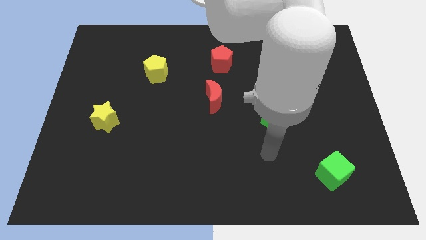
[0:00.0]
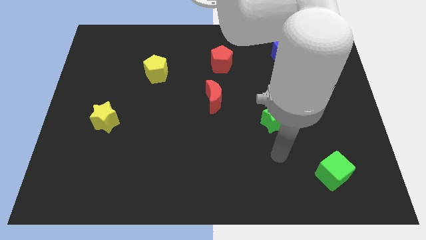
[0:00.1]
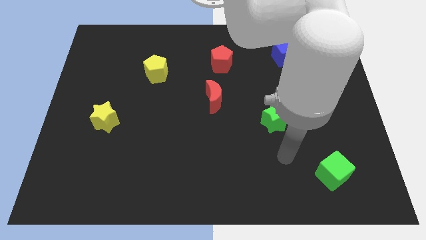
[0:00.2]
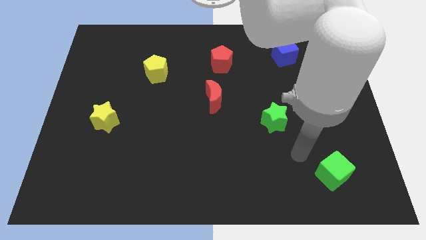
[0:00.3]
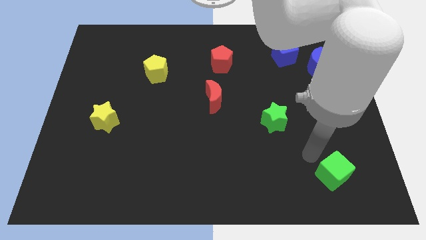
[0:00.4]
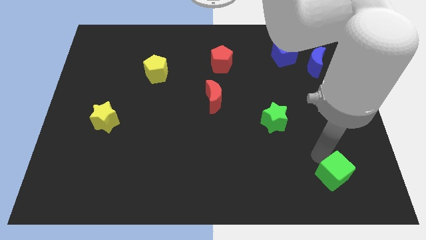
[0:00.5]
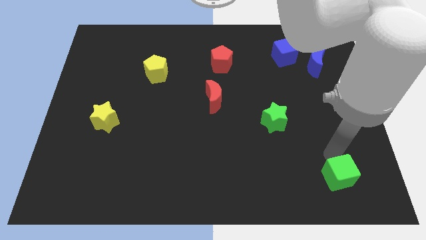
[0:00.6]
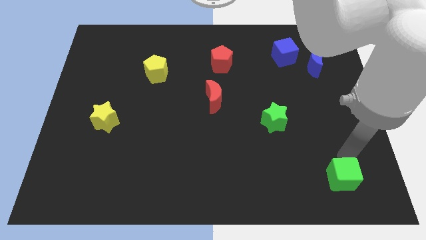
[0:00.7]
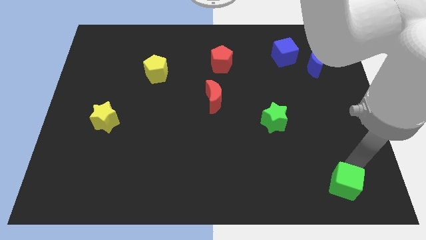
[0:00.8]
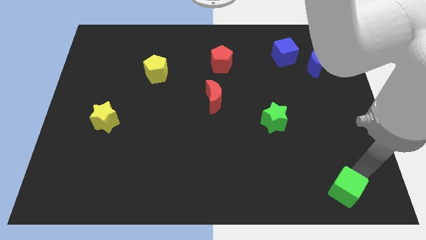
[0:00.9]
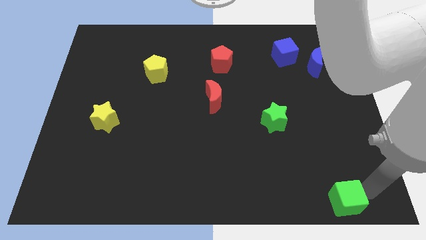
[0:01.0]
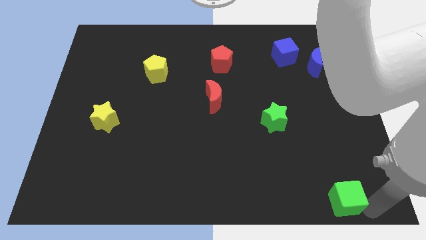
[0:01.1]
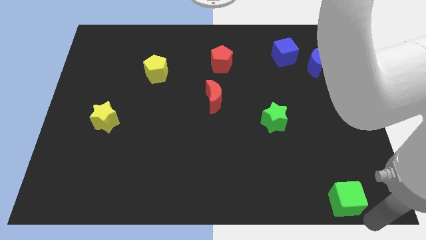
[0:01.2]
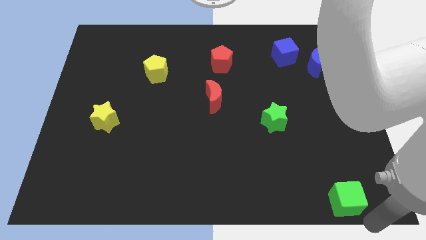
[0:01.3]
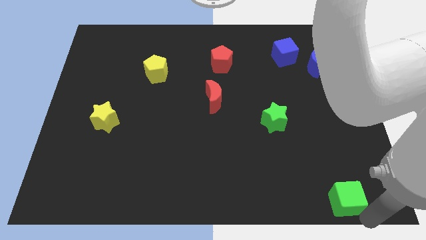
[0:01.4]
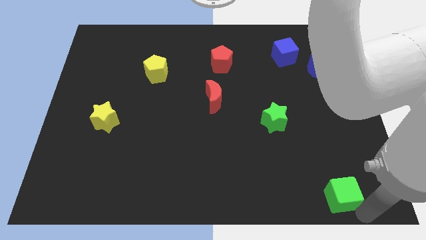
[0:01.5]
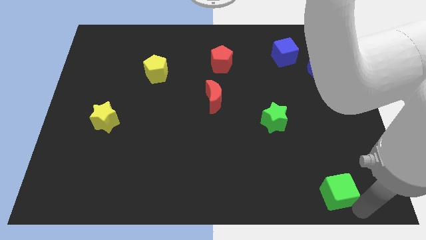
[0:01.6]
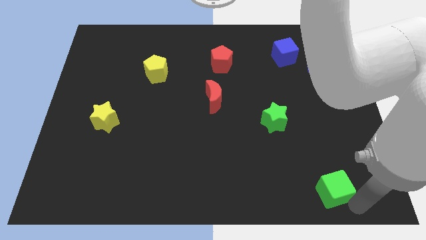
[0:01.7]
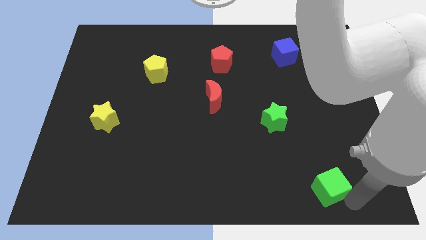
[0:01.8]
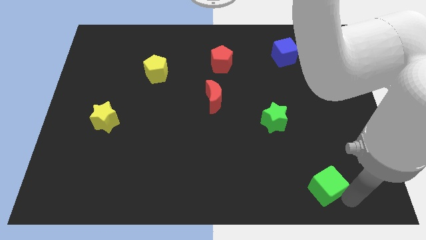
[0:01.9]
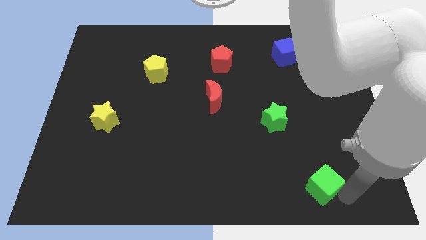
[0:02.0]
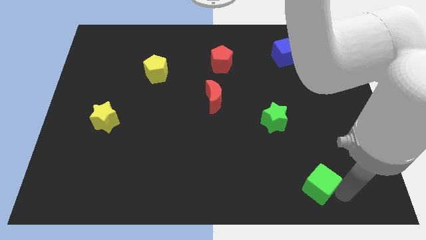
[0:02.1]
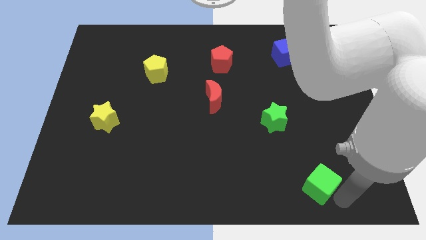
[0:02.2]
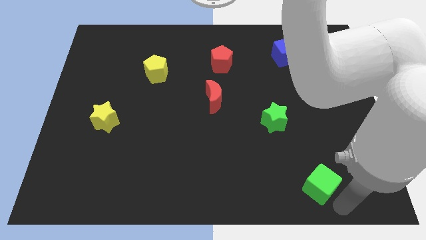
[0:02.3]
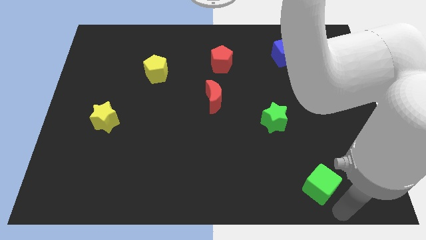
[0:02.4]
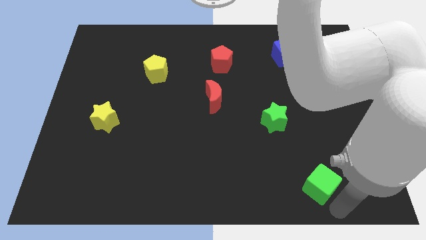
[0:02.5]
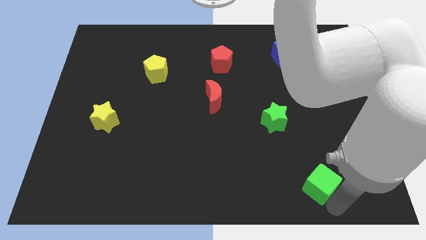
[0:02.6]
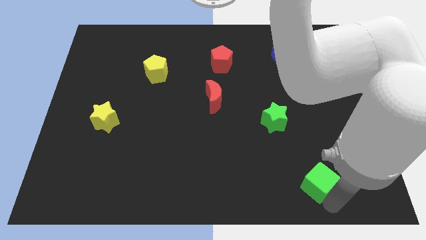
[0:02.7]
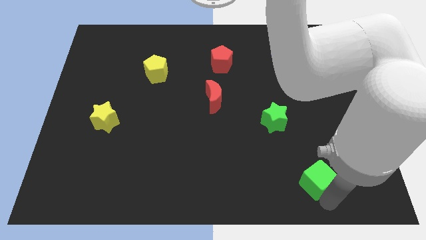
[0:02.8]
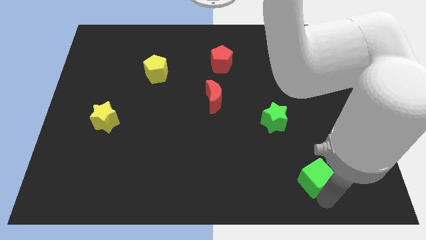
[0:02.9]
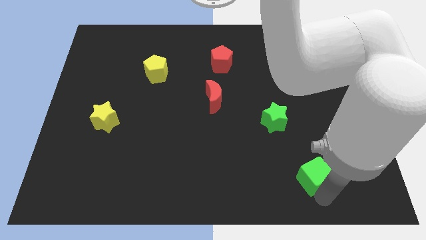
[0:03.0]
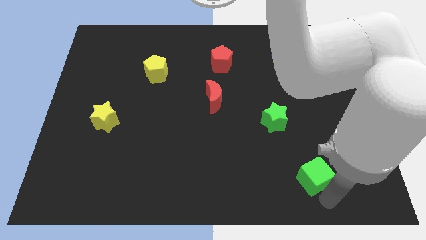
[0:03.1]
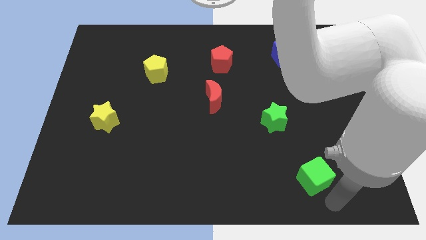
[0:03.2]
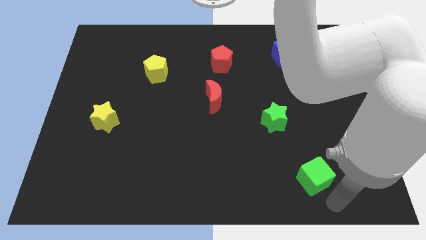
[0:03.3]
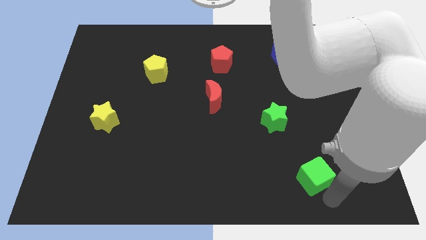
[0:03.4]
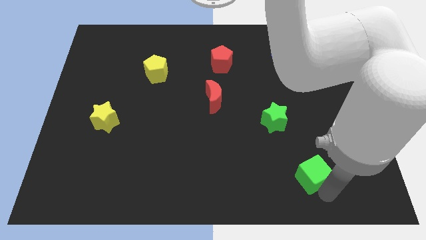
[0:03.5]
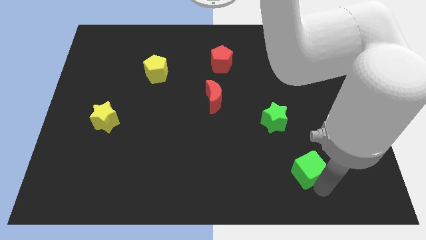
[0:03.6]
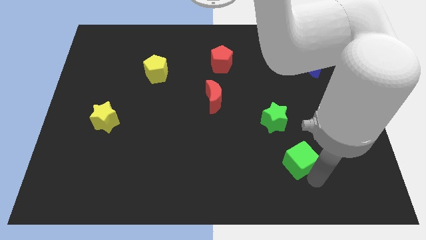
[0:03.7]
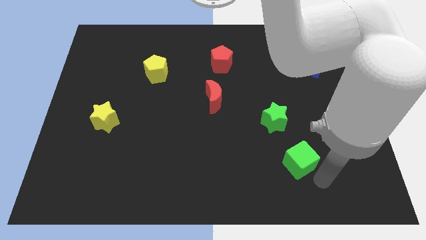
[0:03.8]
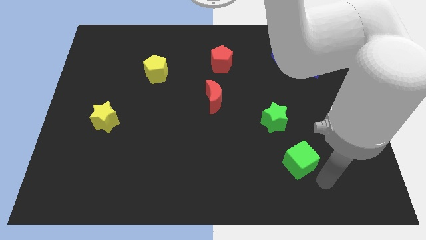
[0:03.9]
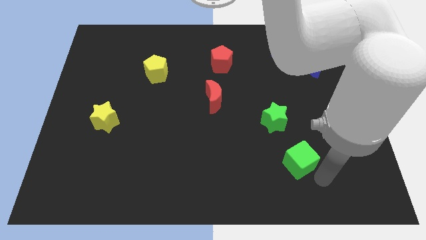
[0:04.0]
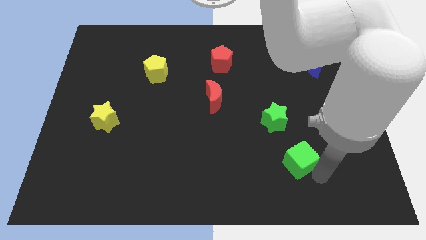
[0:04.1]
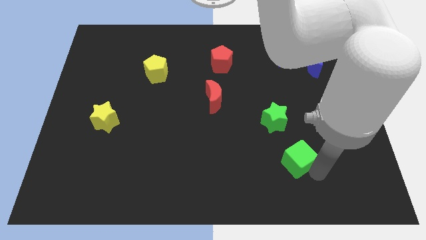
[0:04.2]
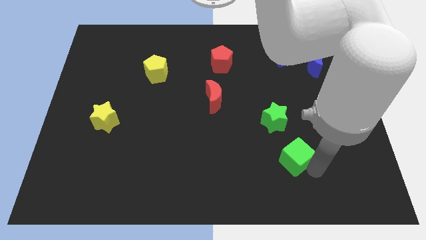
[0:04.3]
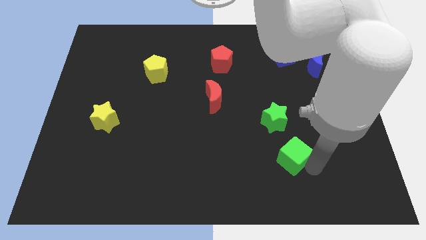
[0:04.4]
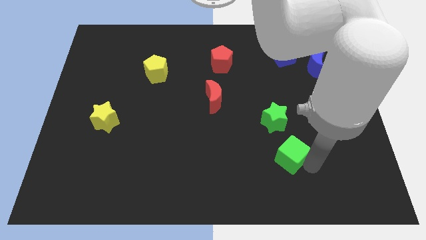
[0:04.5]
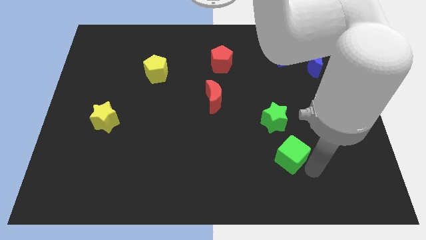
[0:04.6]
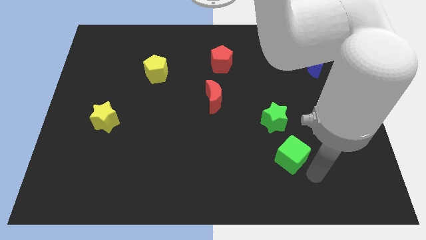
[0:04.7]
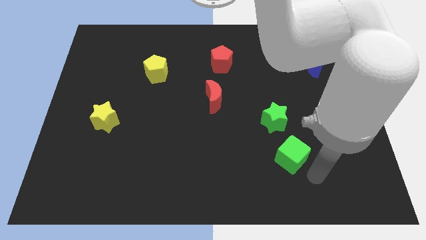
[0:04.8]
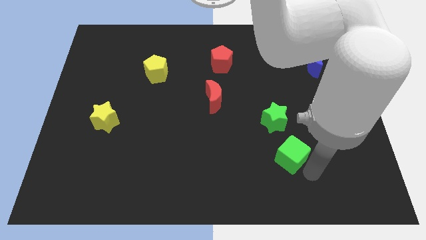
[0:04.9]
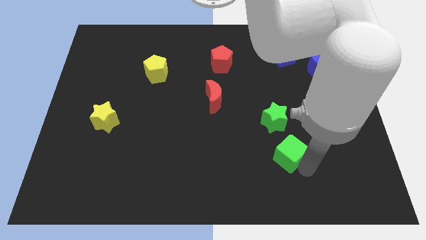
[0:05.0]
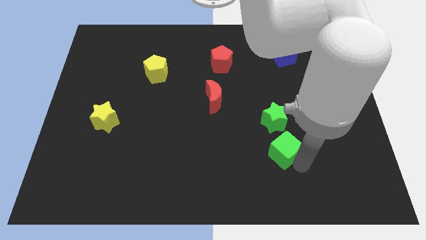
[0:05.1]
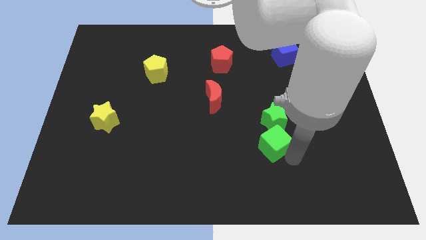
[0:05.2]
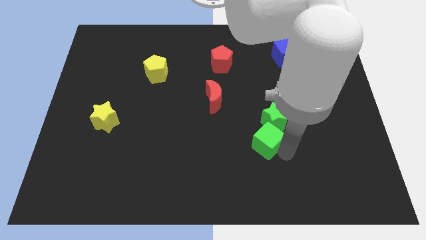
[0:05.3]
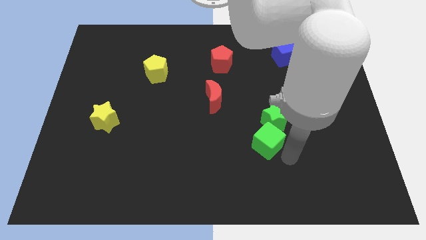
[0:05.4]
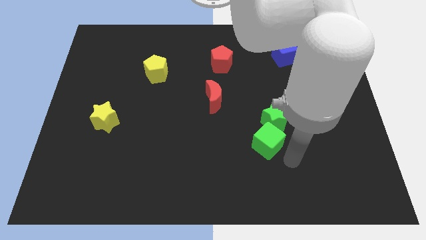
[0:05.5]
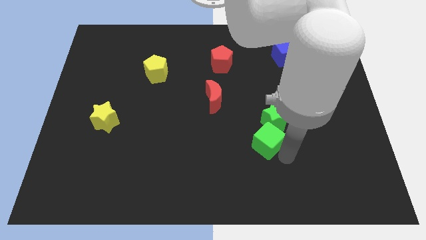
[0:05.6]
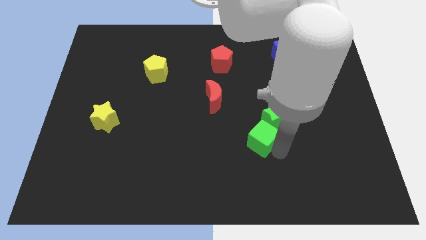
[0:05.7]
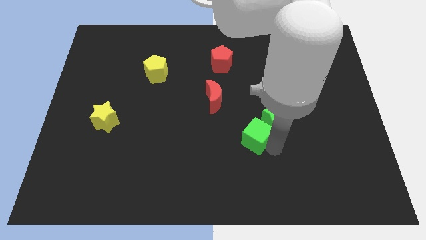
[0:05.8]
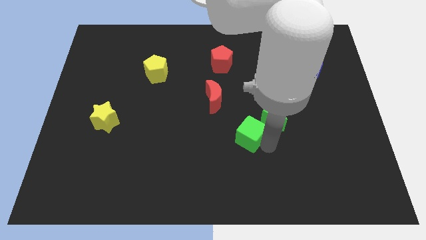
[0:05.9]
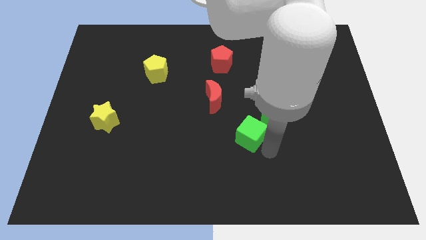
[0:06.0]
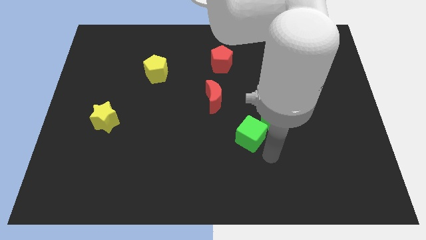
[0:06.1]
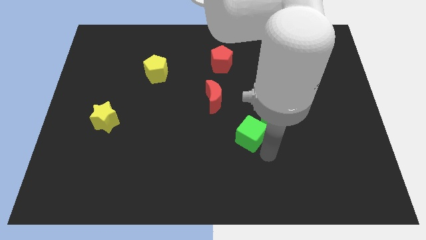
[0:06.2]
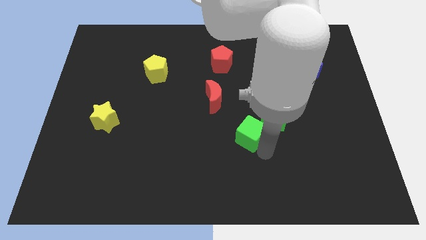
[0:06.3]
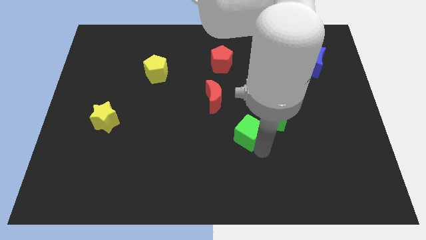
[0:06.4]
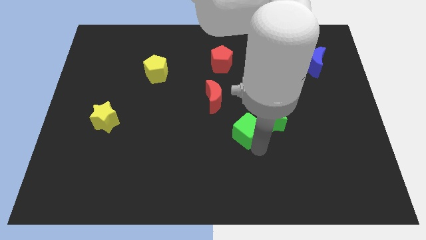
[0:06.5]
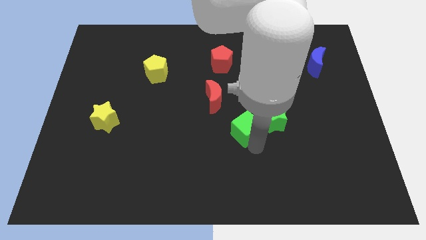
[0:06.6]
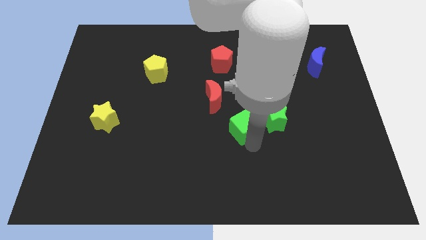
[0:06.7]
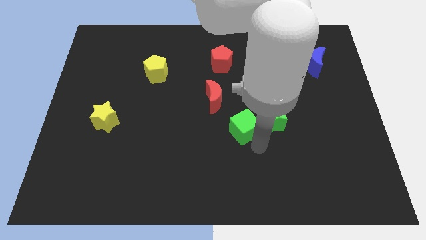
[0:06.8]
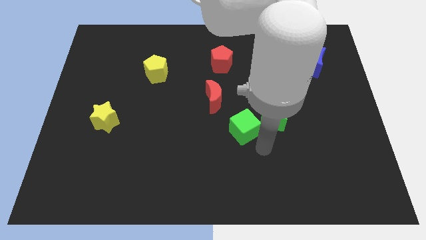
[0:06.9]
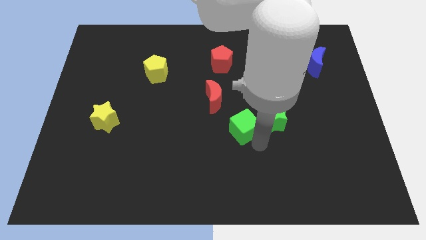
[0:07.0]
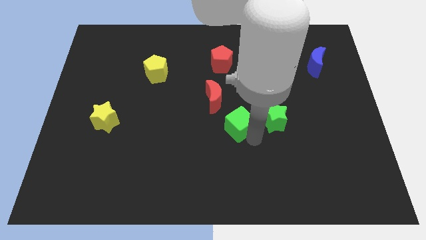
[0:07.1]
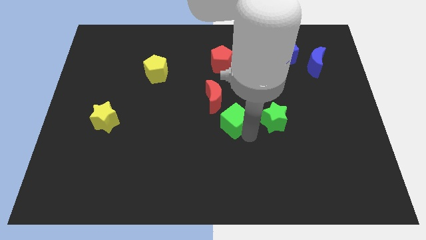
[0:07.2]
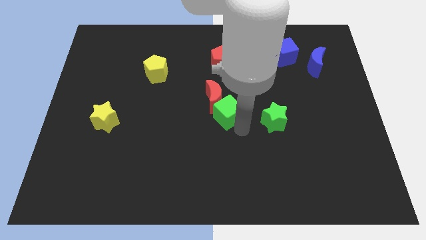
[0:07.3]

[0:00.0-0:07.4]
move the green cube close to the red moon
